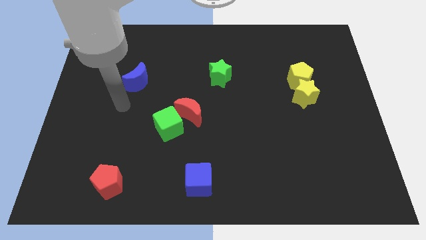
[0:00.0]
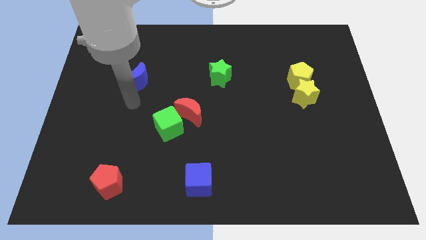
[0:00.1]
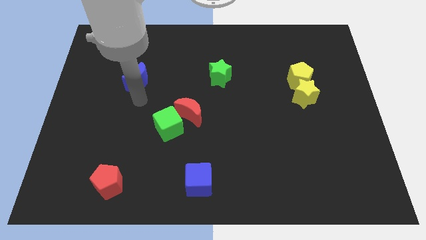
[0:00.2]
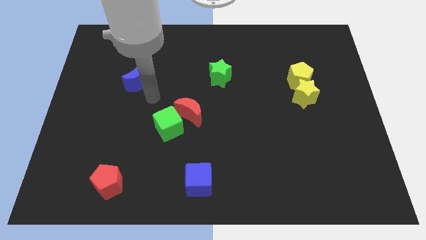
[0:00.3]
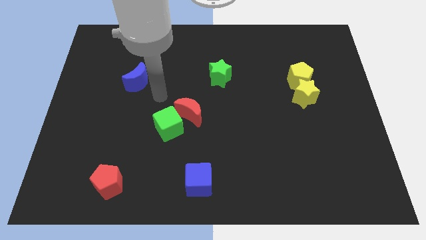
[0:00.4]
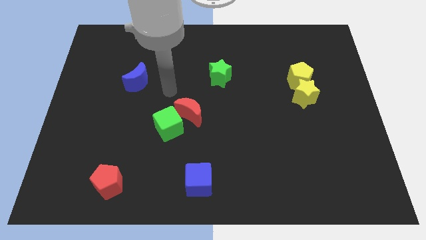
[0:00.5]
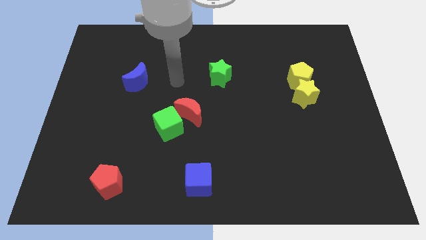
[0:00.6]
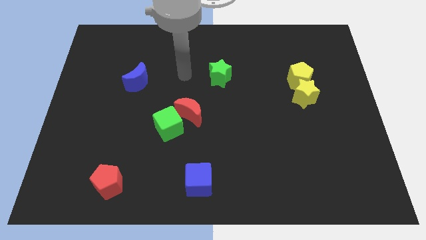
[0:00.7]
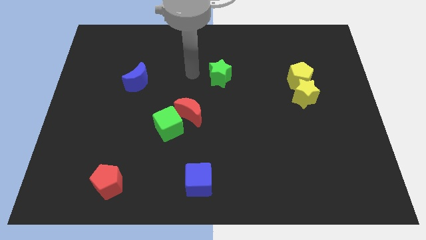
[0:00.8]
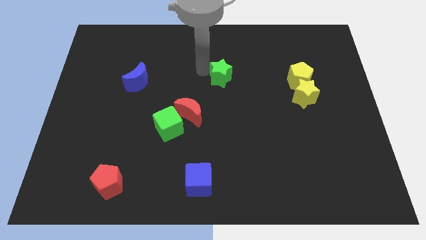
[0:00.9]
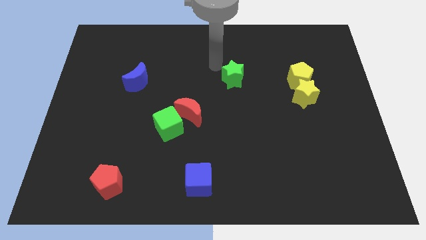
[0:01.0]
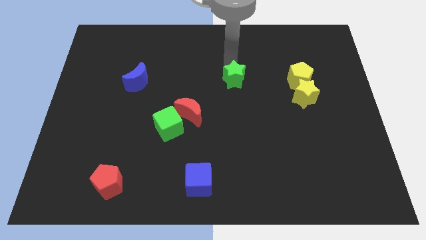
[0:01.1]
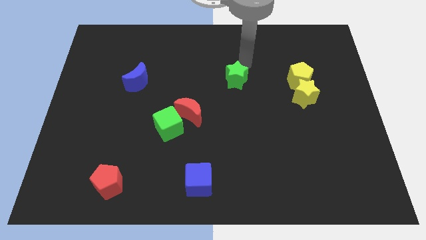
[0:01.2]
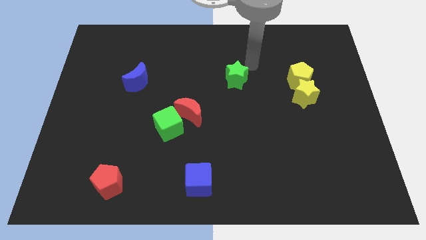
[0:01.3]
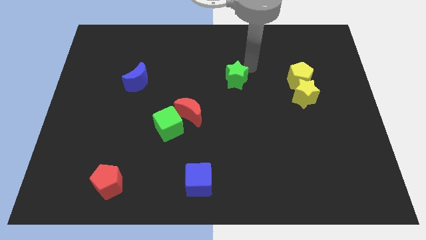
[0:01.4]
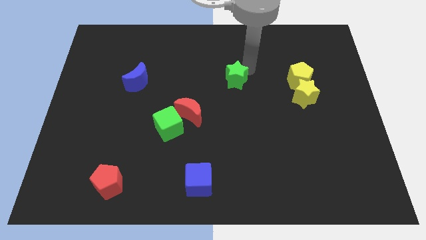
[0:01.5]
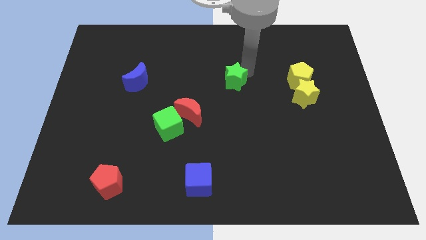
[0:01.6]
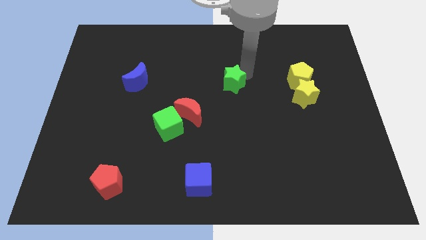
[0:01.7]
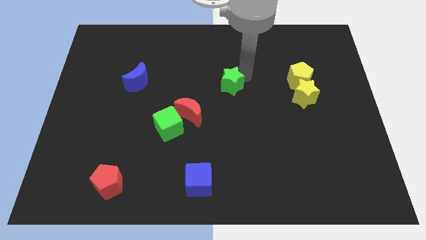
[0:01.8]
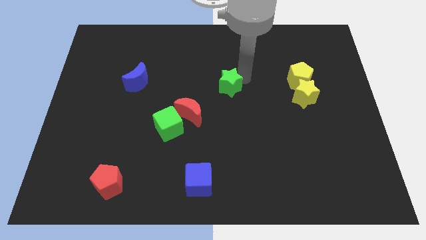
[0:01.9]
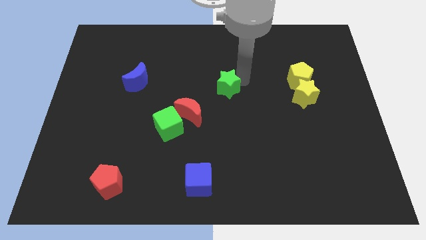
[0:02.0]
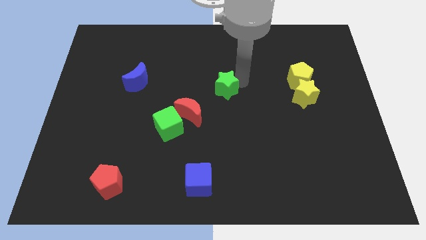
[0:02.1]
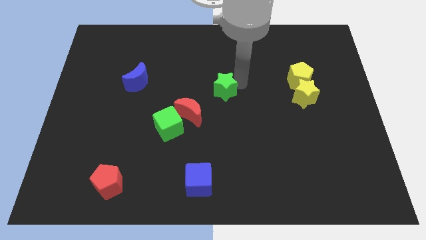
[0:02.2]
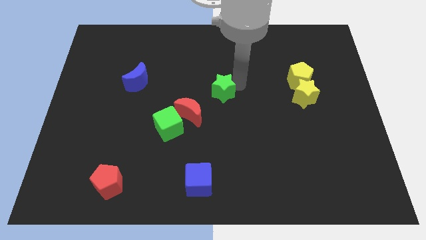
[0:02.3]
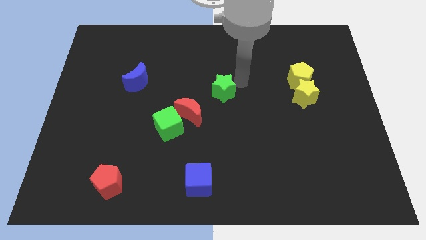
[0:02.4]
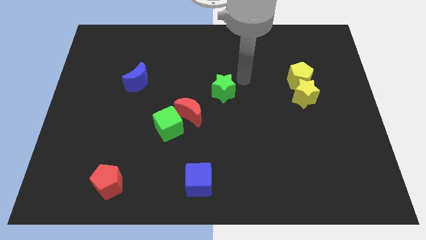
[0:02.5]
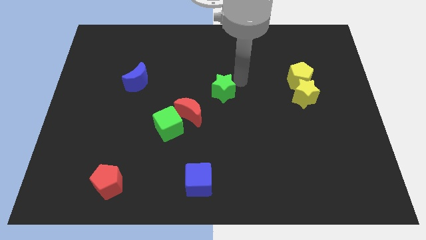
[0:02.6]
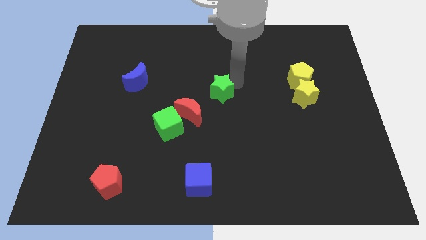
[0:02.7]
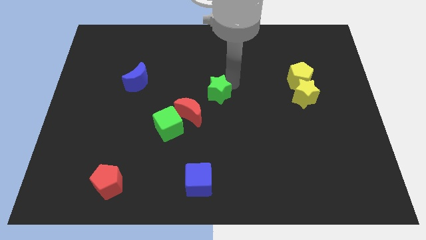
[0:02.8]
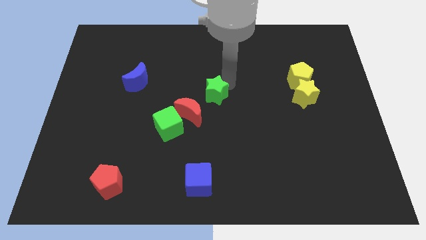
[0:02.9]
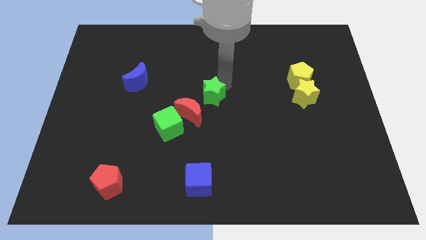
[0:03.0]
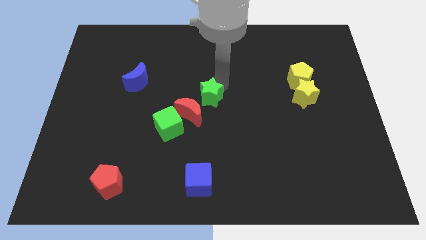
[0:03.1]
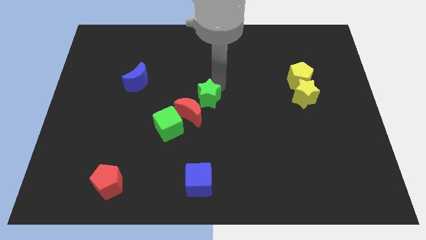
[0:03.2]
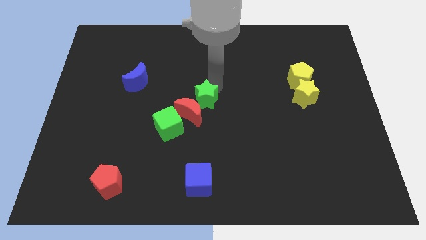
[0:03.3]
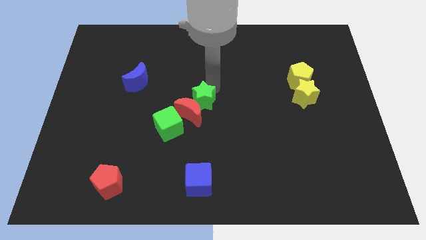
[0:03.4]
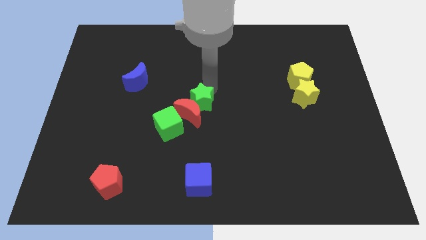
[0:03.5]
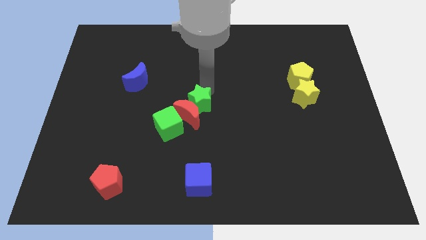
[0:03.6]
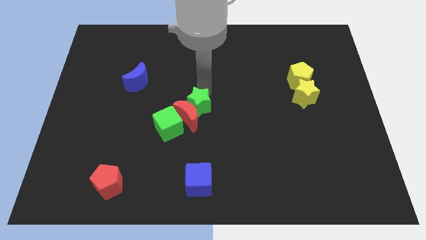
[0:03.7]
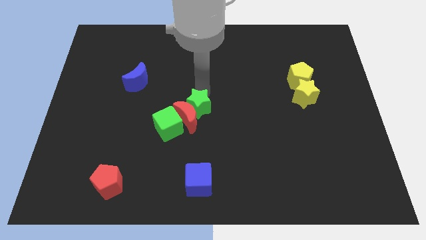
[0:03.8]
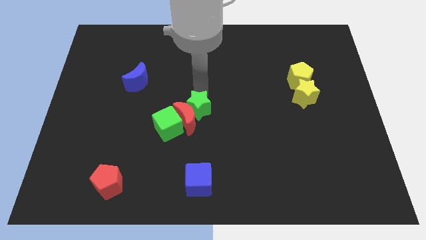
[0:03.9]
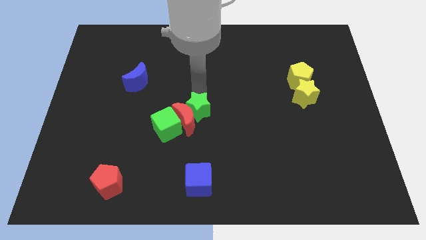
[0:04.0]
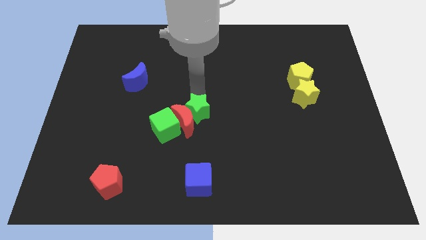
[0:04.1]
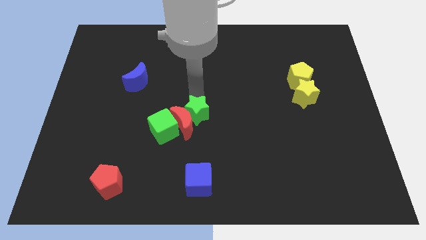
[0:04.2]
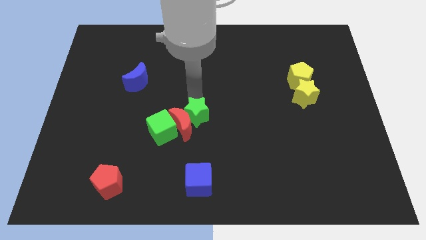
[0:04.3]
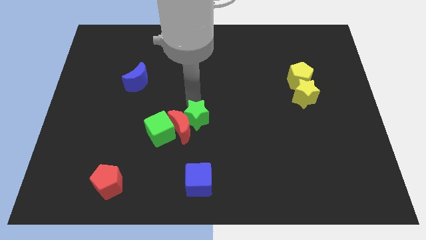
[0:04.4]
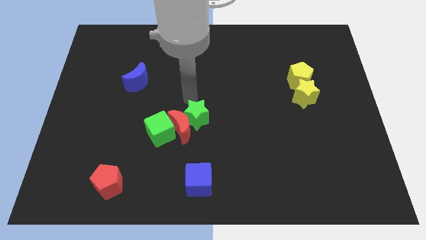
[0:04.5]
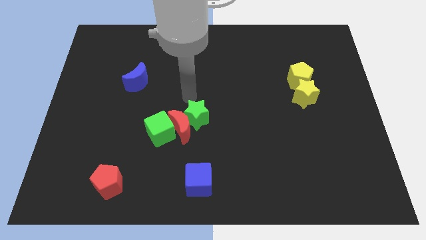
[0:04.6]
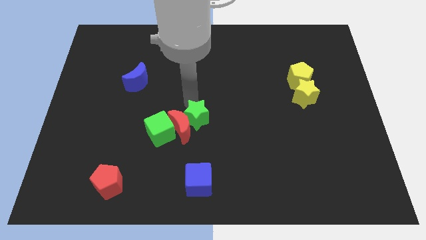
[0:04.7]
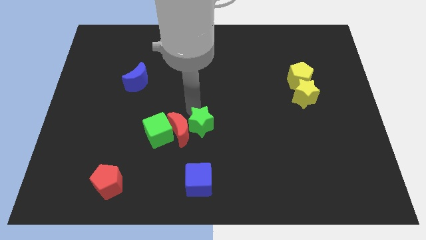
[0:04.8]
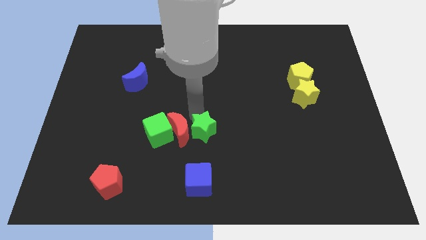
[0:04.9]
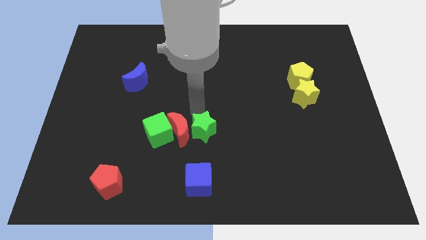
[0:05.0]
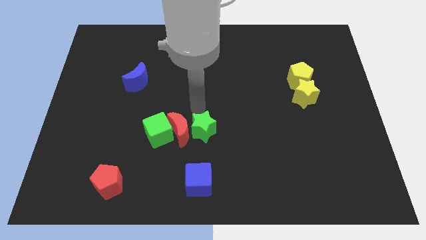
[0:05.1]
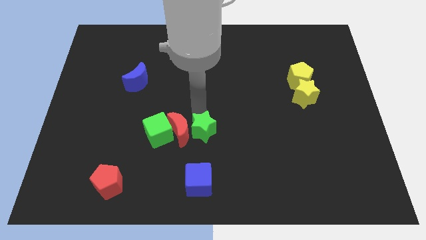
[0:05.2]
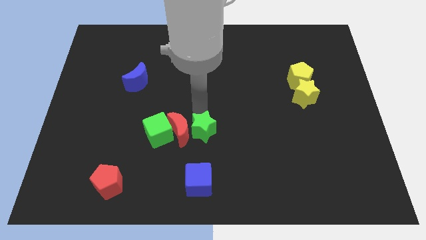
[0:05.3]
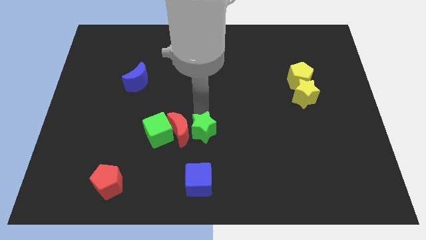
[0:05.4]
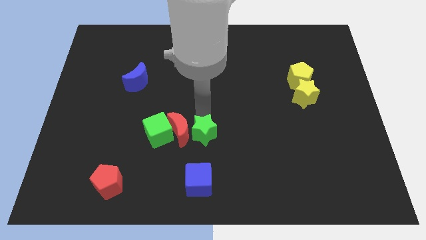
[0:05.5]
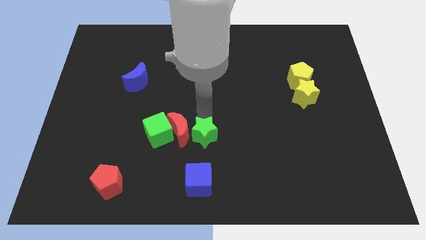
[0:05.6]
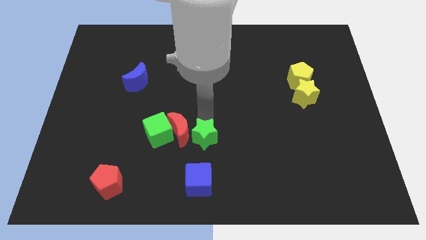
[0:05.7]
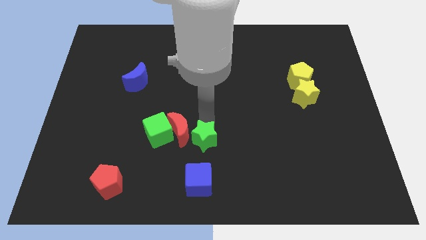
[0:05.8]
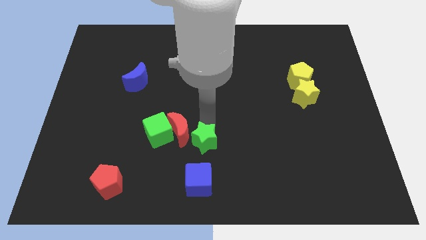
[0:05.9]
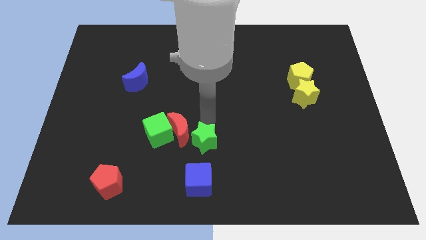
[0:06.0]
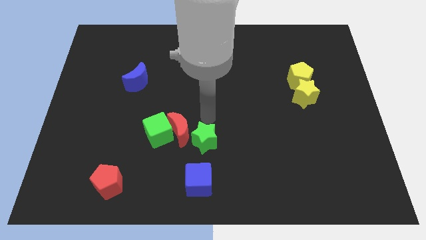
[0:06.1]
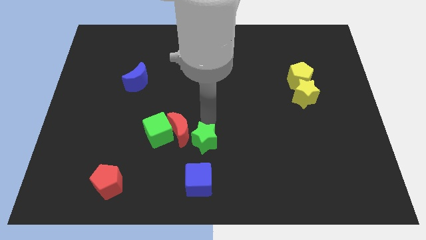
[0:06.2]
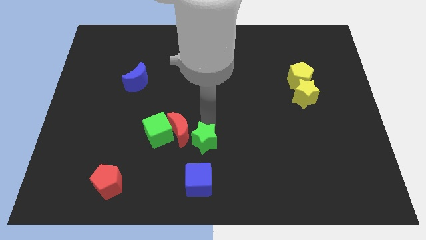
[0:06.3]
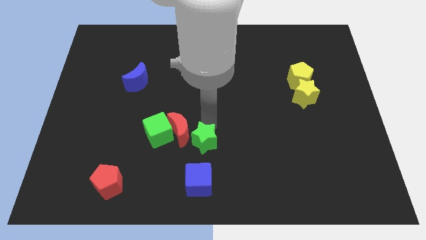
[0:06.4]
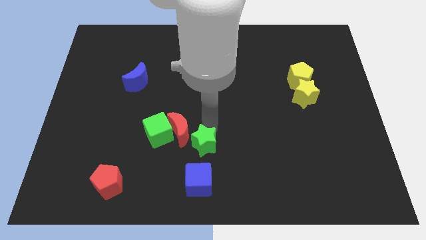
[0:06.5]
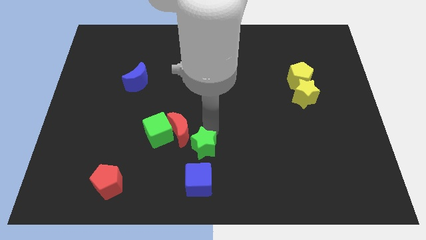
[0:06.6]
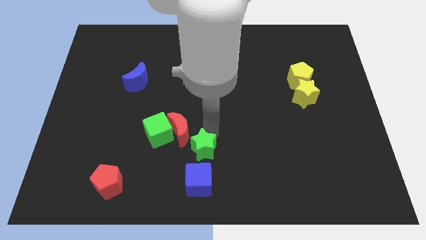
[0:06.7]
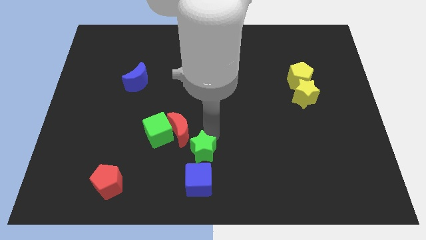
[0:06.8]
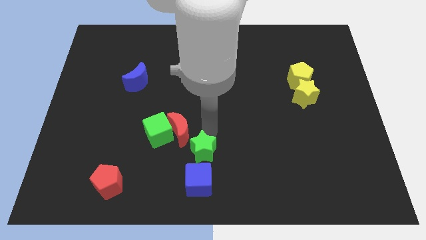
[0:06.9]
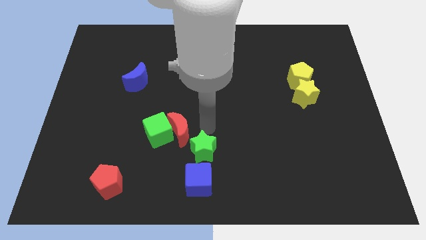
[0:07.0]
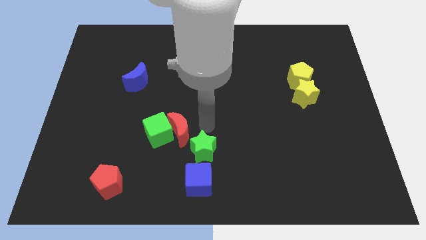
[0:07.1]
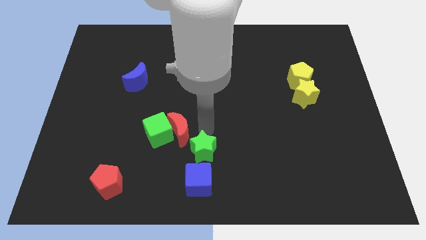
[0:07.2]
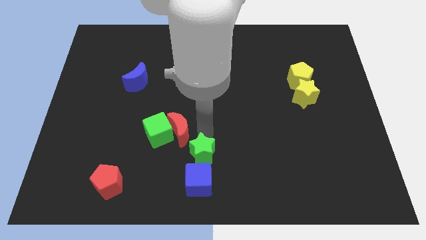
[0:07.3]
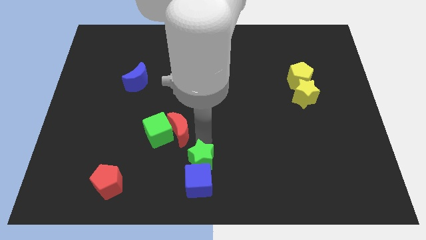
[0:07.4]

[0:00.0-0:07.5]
slide the green star next to the blue cube
